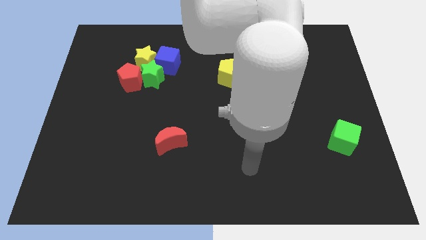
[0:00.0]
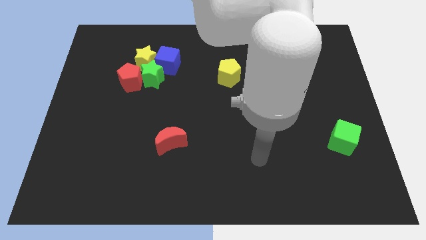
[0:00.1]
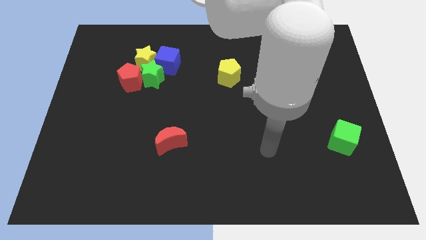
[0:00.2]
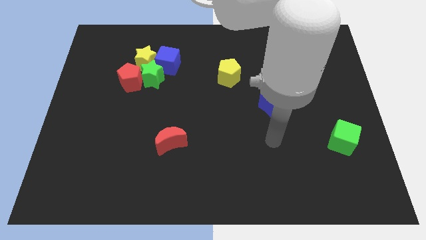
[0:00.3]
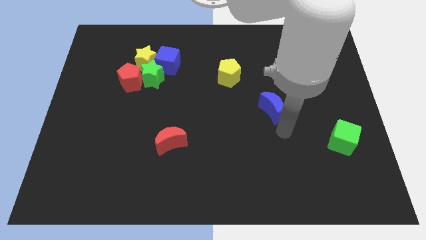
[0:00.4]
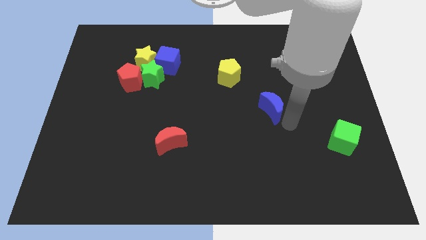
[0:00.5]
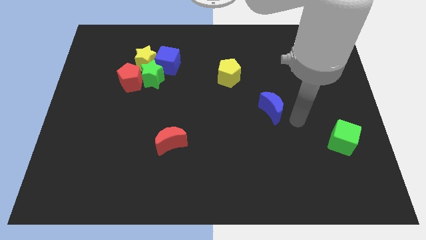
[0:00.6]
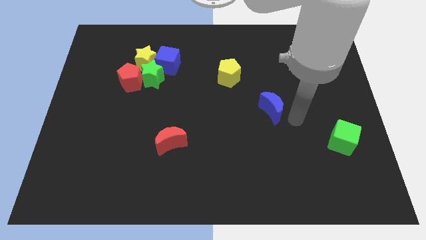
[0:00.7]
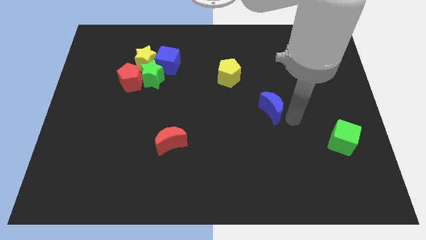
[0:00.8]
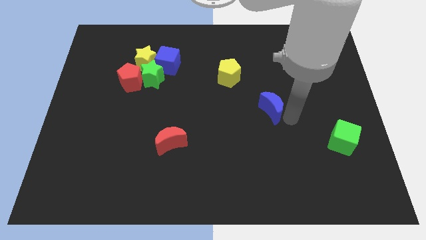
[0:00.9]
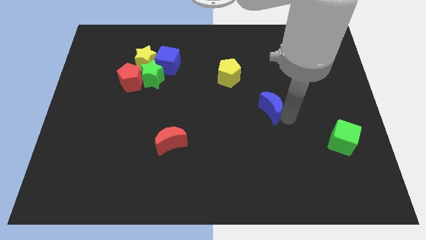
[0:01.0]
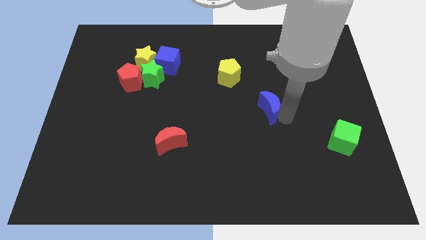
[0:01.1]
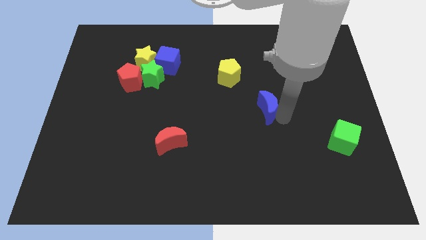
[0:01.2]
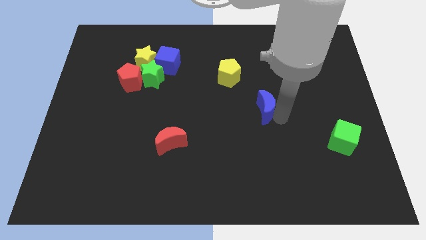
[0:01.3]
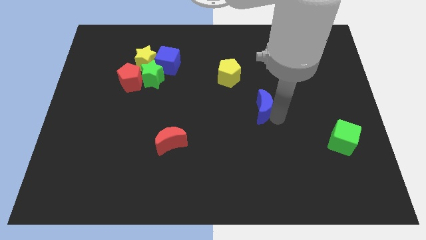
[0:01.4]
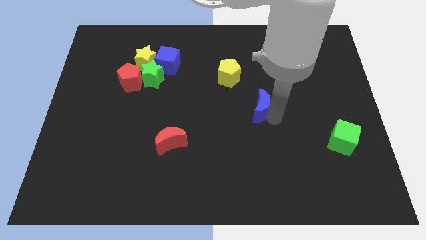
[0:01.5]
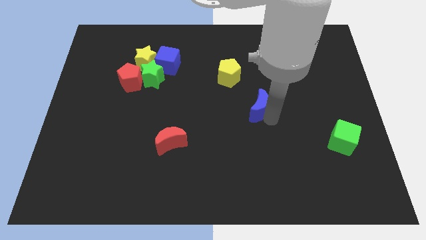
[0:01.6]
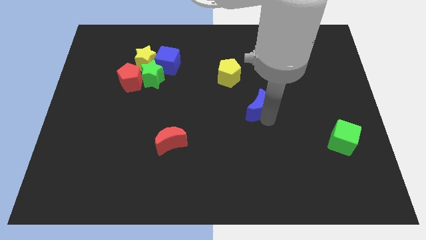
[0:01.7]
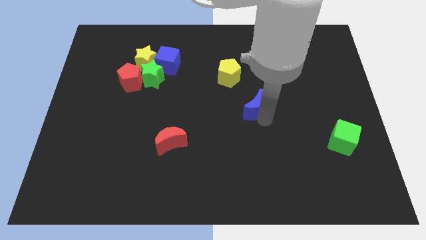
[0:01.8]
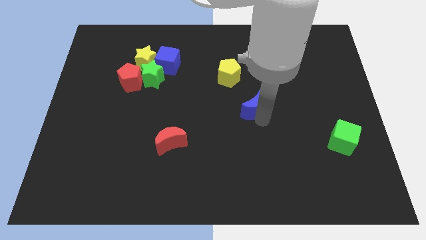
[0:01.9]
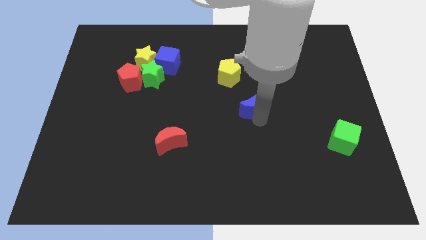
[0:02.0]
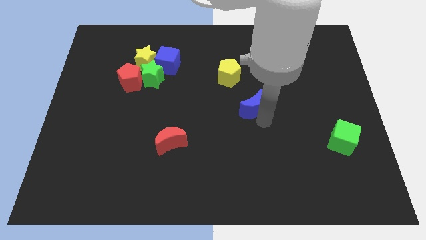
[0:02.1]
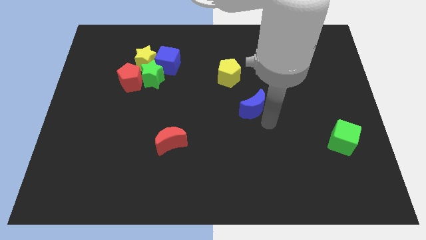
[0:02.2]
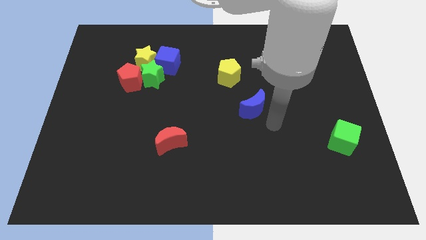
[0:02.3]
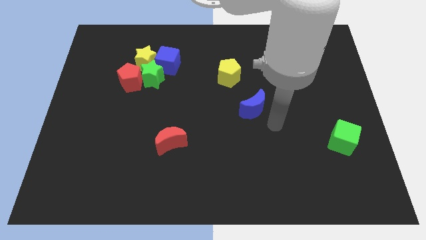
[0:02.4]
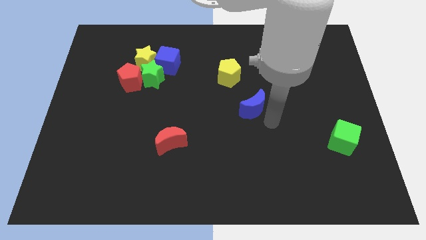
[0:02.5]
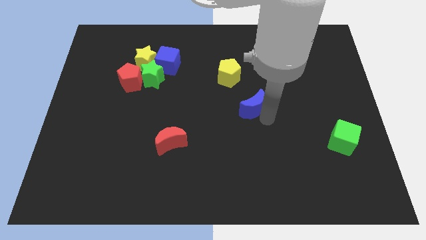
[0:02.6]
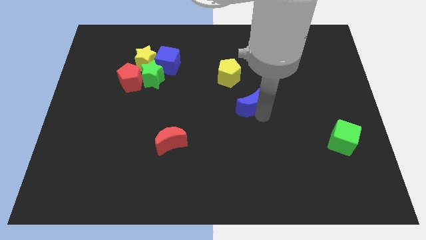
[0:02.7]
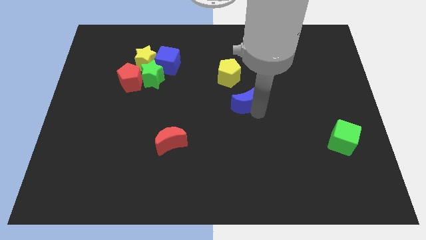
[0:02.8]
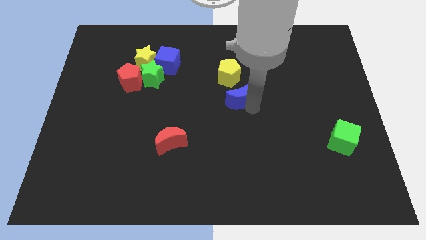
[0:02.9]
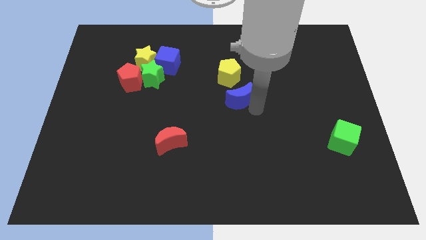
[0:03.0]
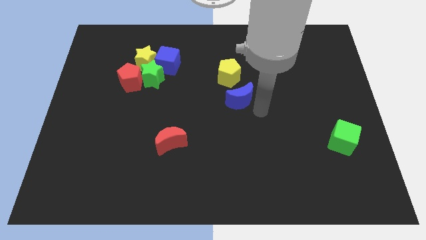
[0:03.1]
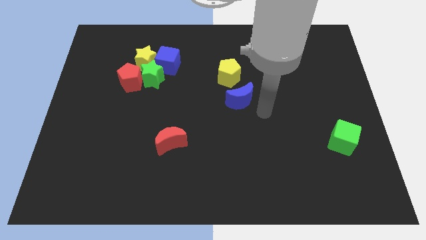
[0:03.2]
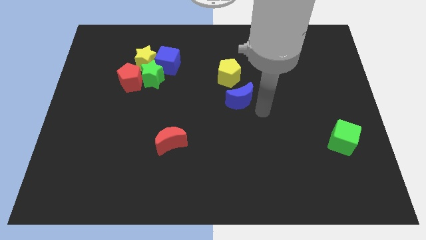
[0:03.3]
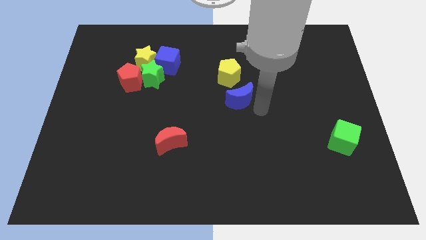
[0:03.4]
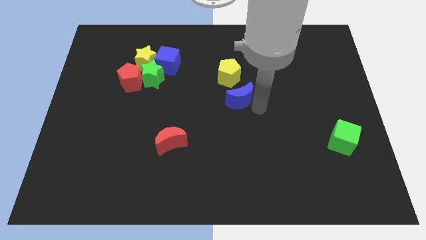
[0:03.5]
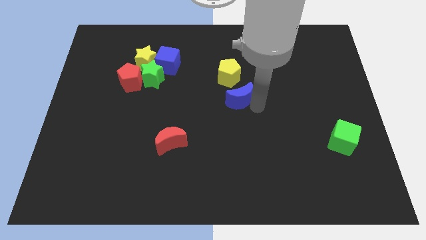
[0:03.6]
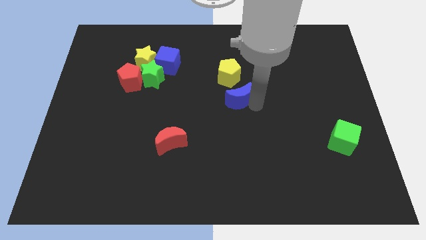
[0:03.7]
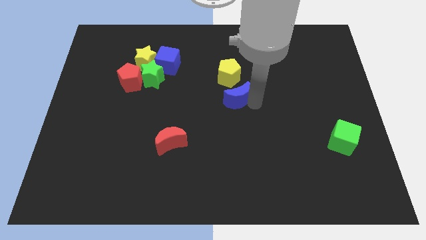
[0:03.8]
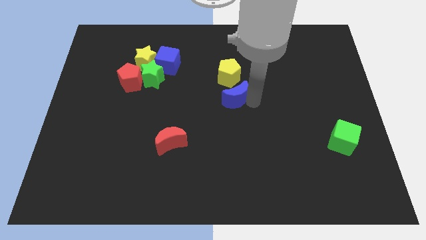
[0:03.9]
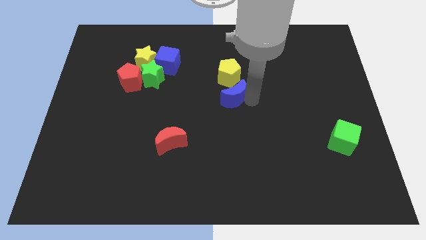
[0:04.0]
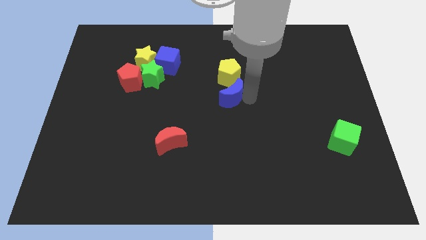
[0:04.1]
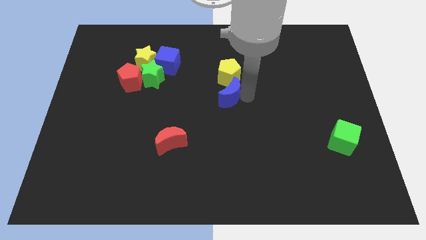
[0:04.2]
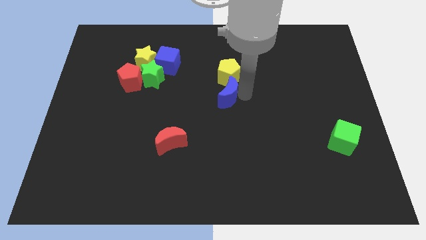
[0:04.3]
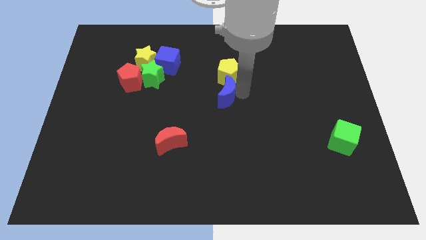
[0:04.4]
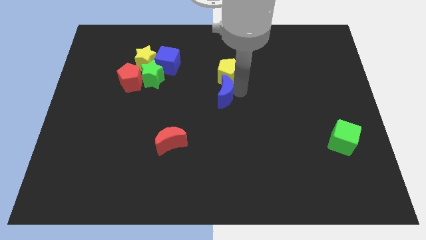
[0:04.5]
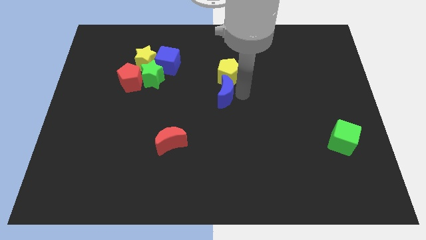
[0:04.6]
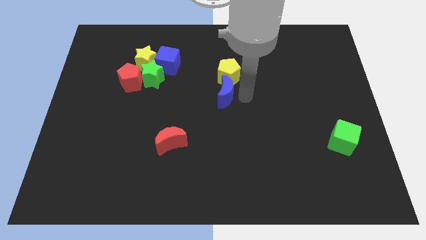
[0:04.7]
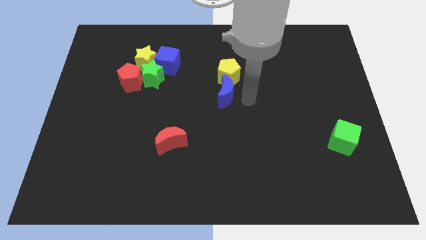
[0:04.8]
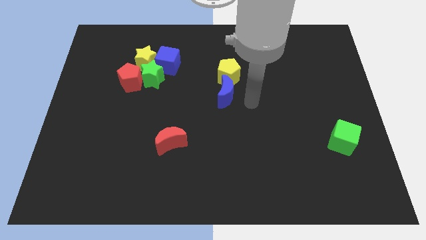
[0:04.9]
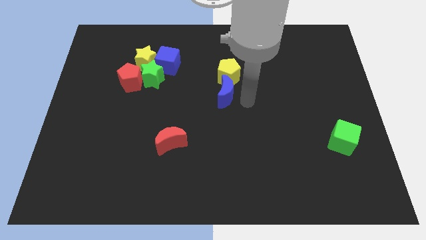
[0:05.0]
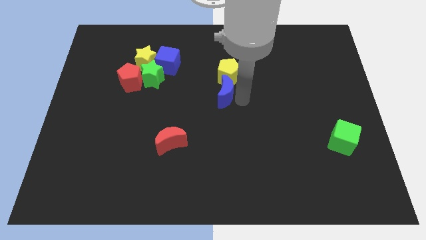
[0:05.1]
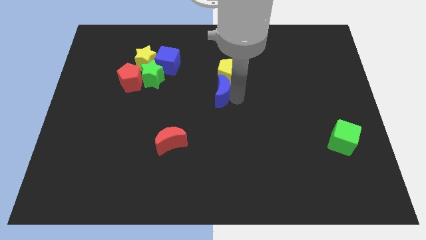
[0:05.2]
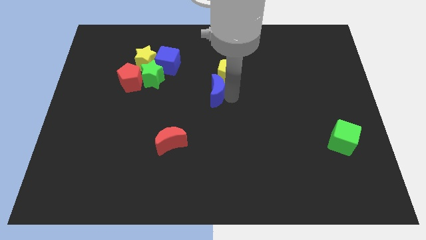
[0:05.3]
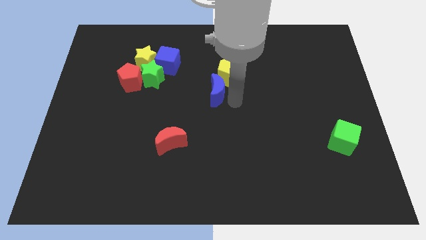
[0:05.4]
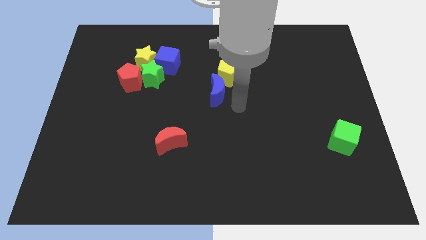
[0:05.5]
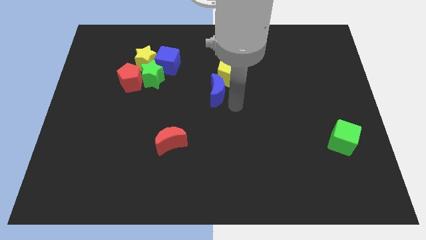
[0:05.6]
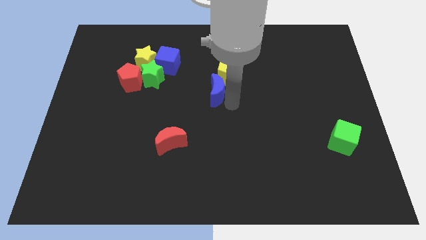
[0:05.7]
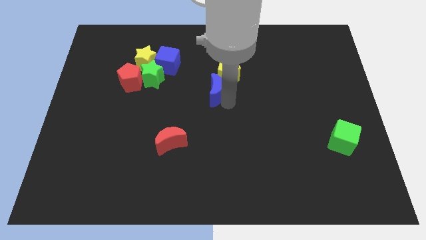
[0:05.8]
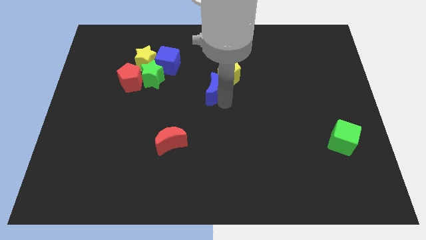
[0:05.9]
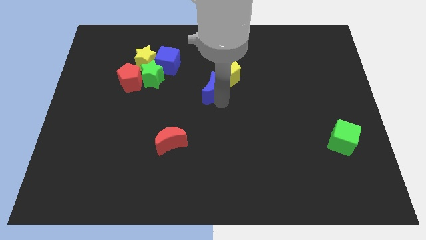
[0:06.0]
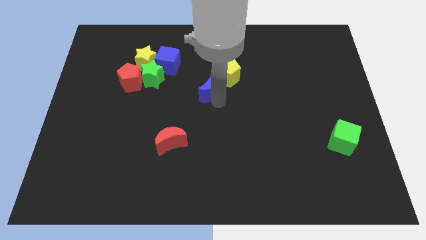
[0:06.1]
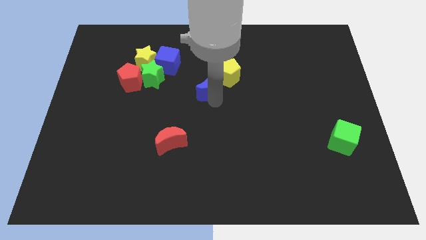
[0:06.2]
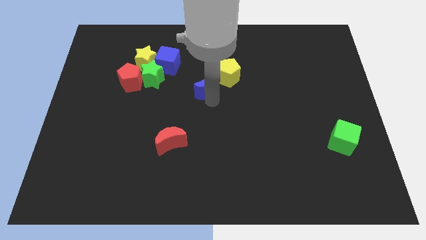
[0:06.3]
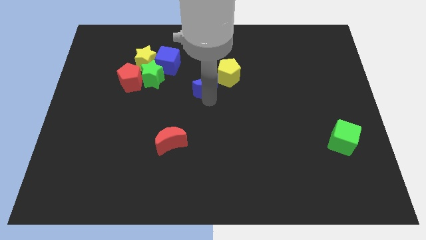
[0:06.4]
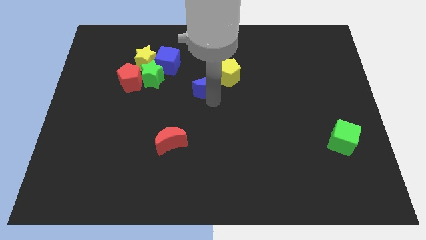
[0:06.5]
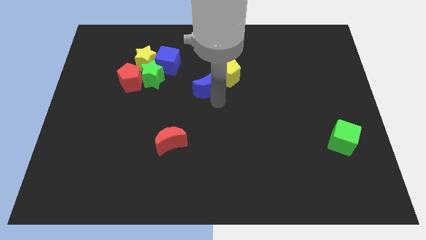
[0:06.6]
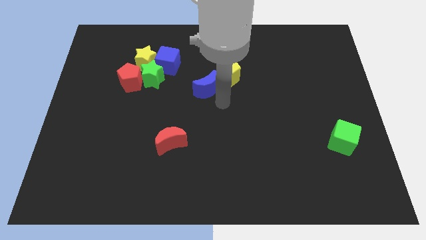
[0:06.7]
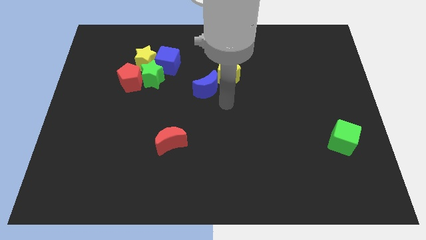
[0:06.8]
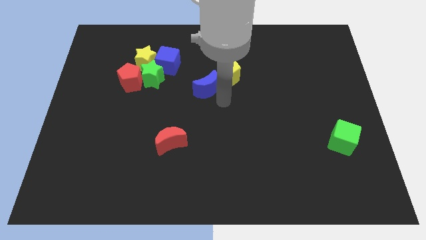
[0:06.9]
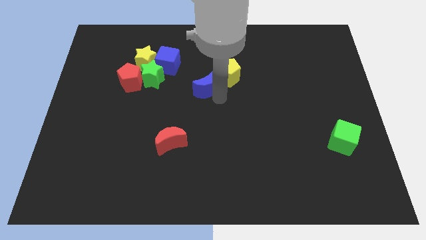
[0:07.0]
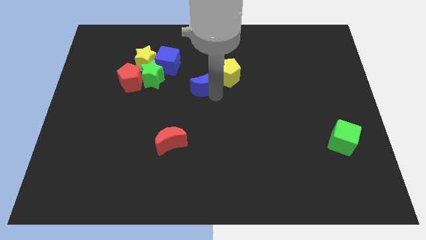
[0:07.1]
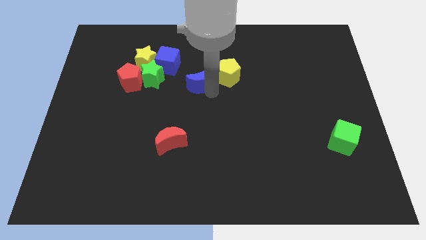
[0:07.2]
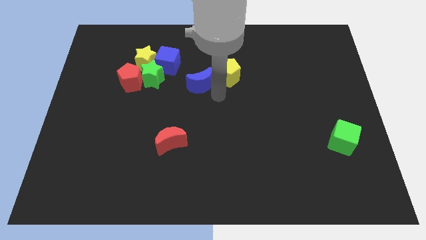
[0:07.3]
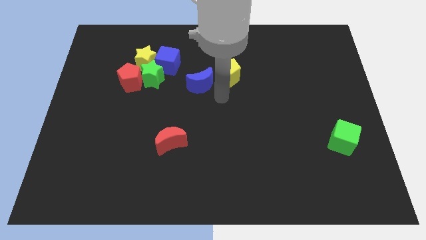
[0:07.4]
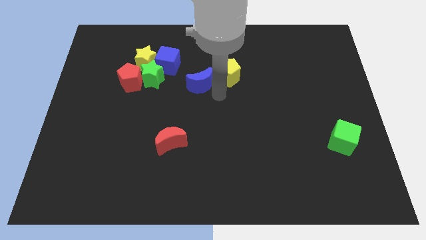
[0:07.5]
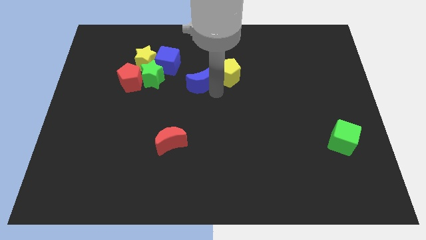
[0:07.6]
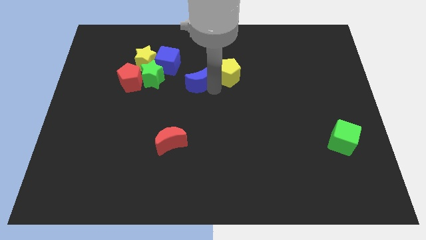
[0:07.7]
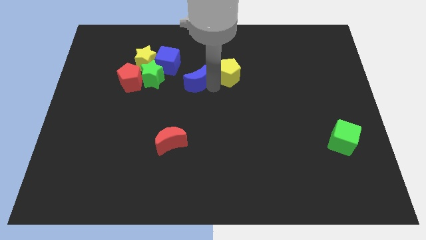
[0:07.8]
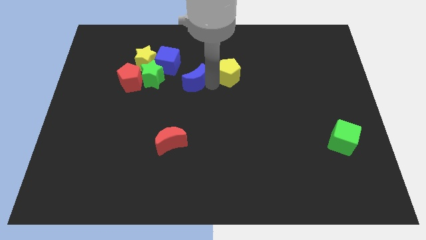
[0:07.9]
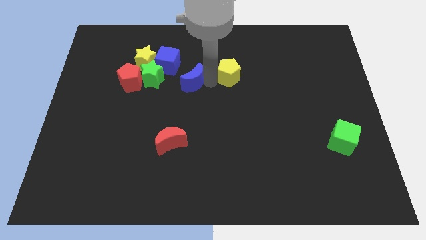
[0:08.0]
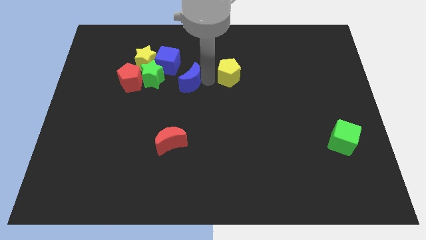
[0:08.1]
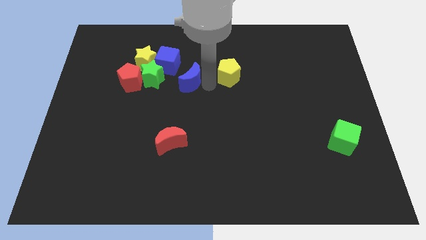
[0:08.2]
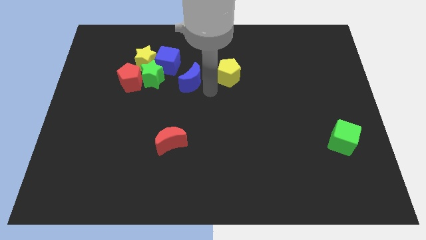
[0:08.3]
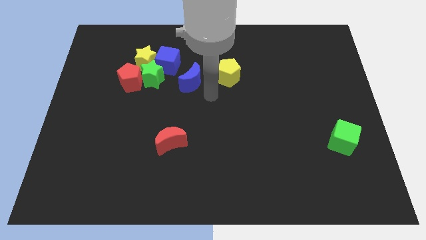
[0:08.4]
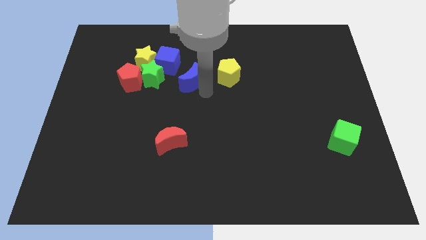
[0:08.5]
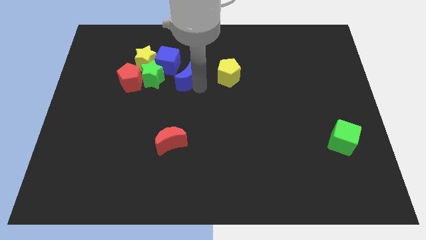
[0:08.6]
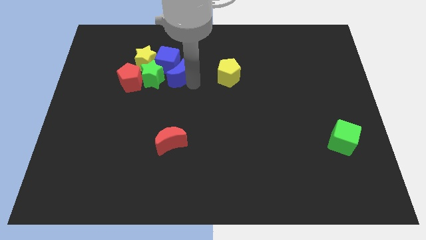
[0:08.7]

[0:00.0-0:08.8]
move the blue moon towards the blue cube
